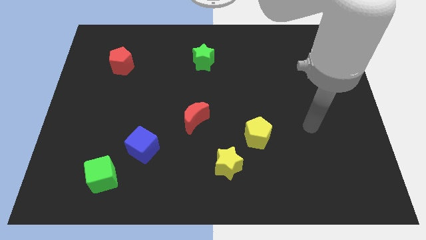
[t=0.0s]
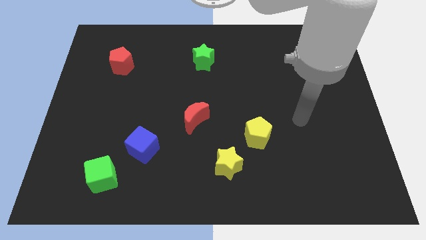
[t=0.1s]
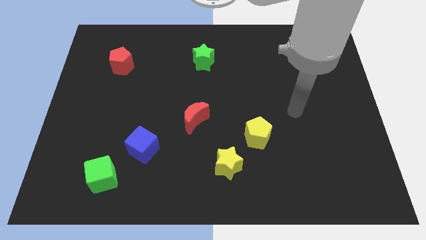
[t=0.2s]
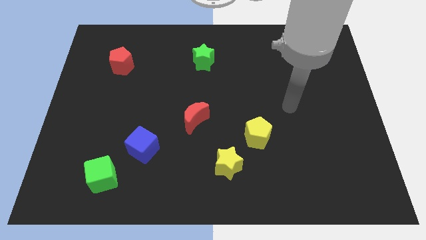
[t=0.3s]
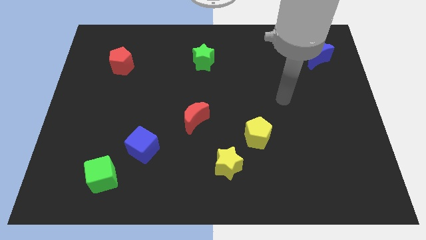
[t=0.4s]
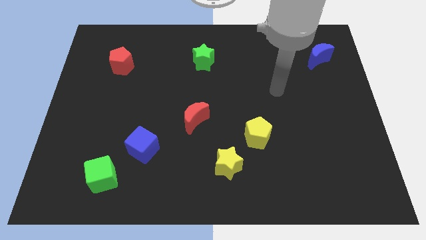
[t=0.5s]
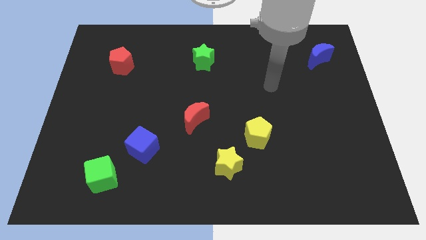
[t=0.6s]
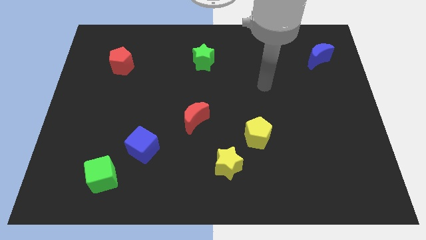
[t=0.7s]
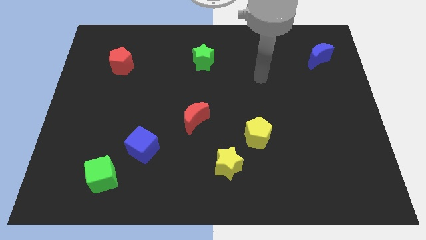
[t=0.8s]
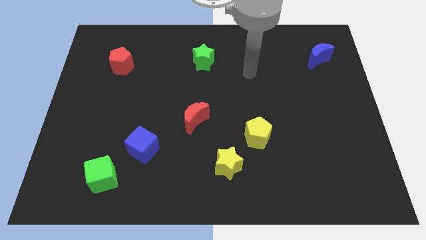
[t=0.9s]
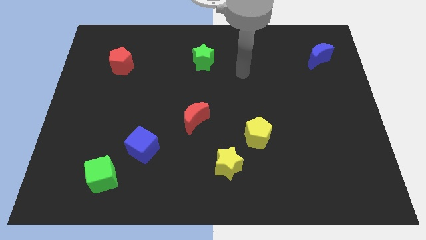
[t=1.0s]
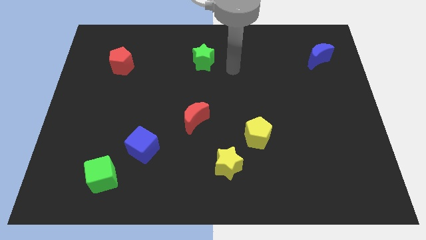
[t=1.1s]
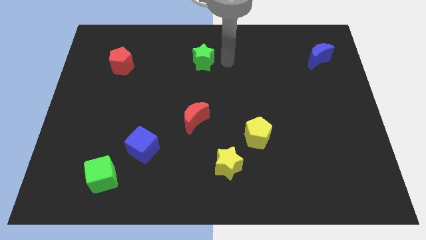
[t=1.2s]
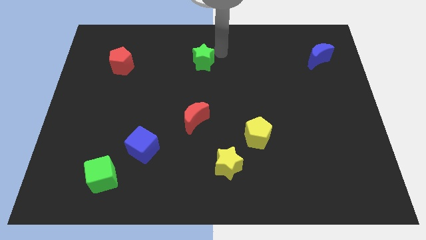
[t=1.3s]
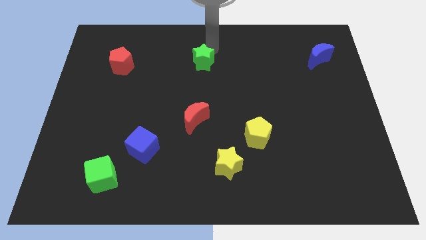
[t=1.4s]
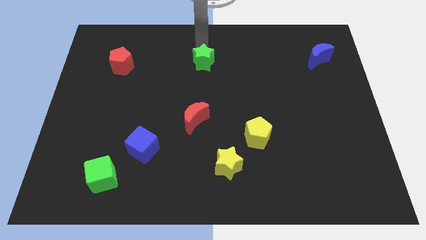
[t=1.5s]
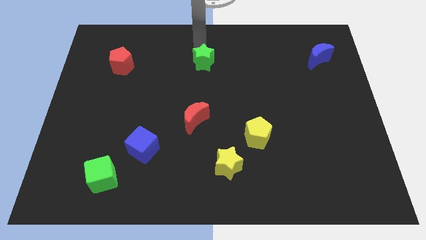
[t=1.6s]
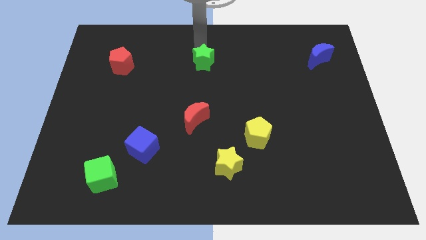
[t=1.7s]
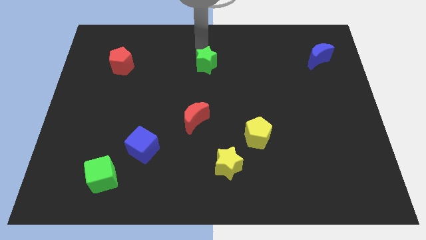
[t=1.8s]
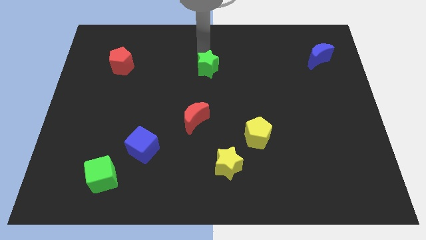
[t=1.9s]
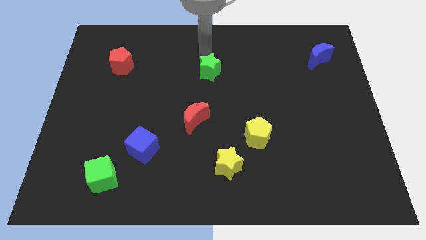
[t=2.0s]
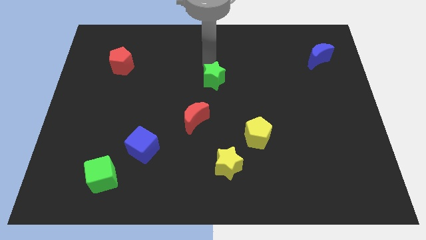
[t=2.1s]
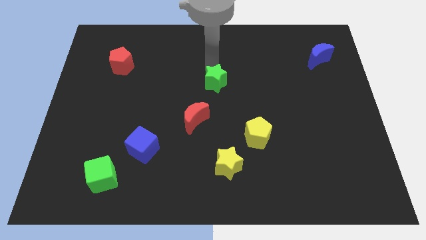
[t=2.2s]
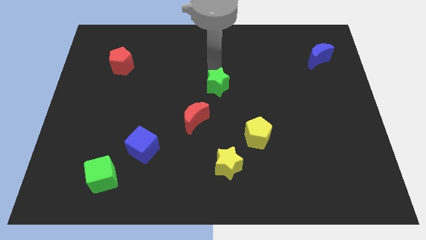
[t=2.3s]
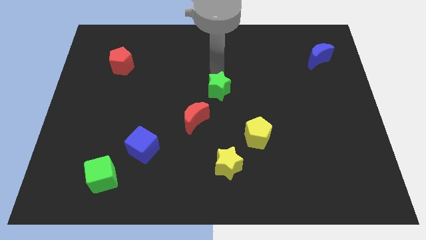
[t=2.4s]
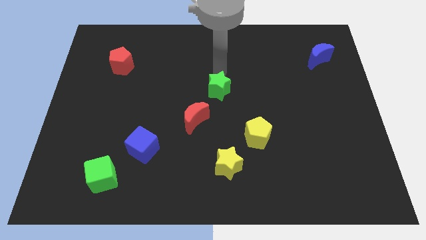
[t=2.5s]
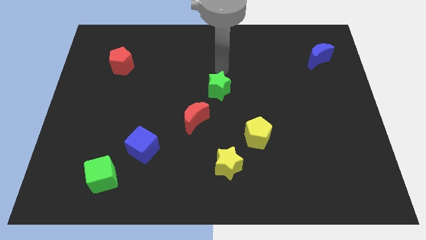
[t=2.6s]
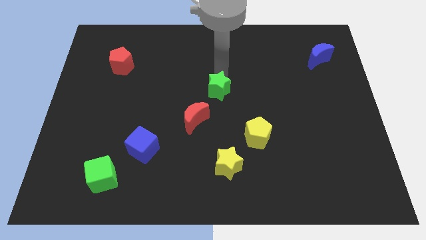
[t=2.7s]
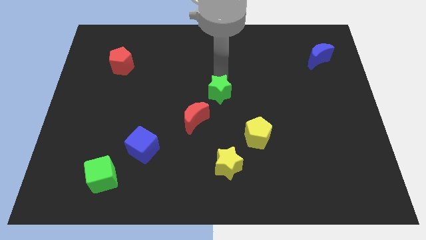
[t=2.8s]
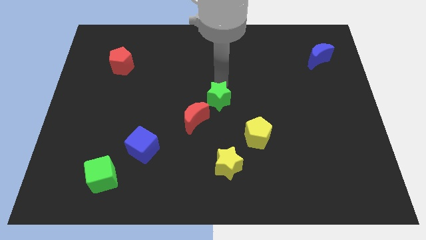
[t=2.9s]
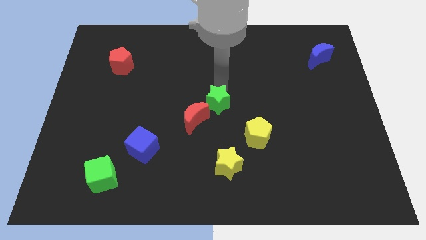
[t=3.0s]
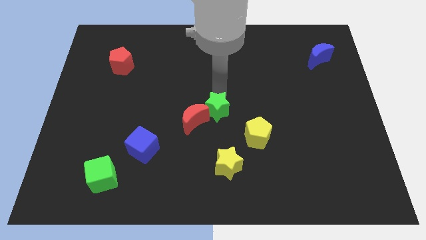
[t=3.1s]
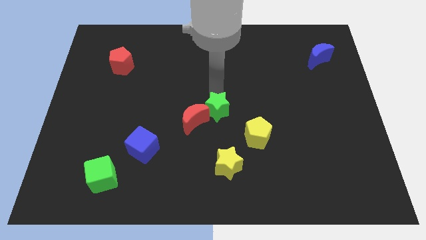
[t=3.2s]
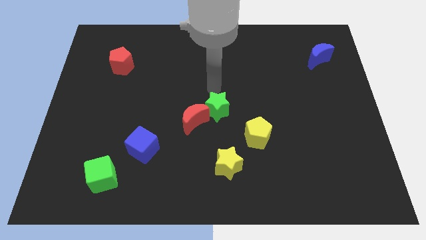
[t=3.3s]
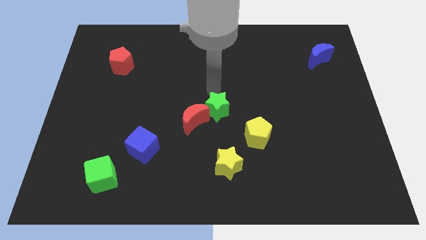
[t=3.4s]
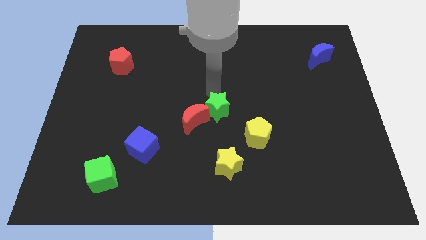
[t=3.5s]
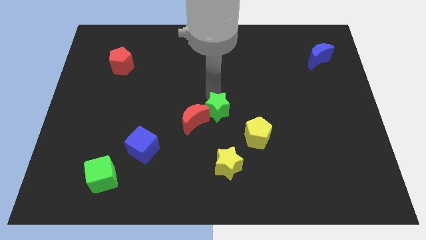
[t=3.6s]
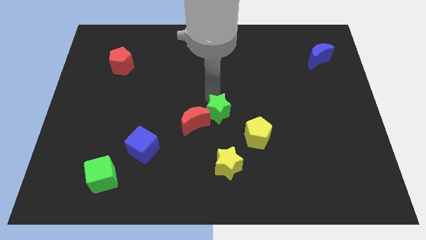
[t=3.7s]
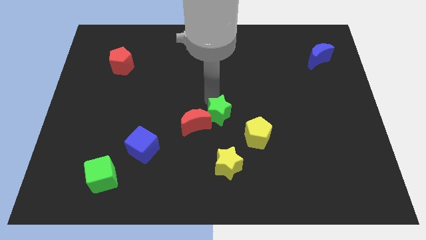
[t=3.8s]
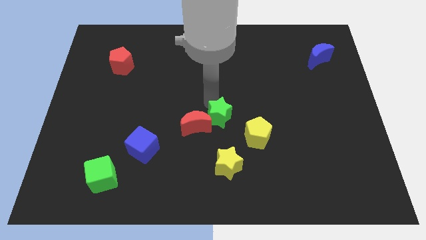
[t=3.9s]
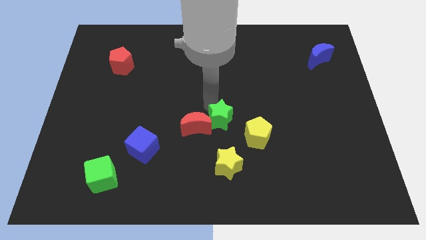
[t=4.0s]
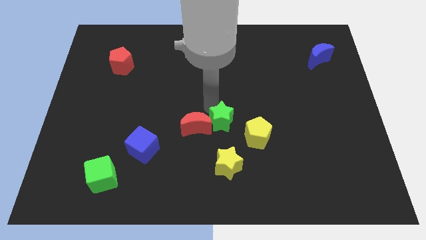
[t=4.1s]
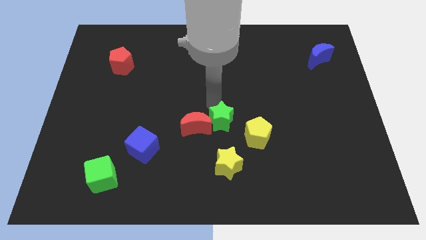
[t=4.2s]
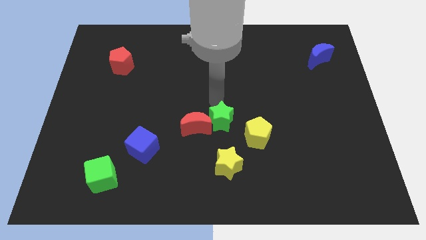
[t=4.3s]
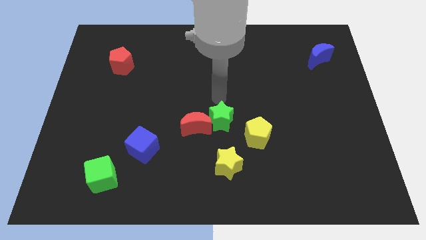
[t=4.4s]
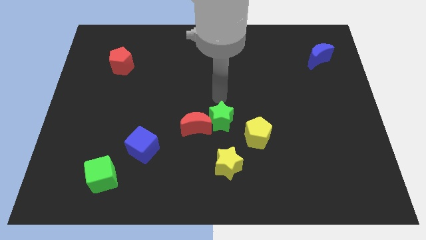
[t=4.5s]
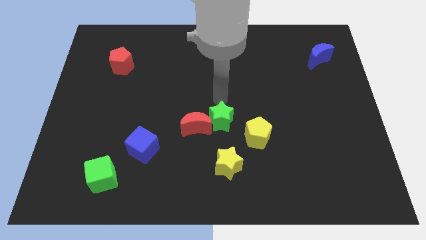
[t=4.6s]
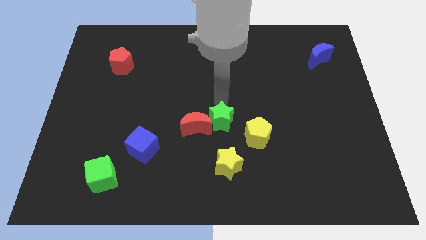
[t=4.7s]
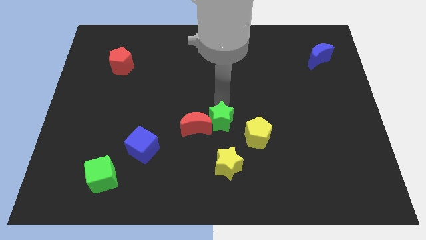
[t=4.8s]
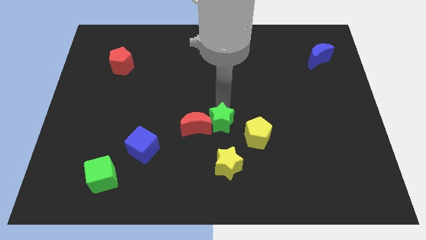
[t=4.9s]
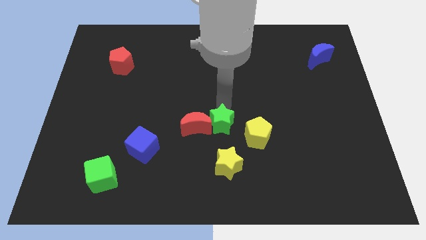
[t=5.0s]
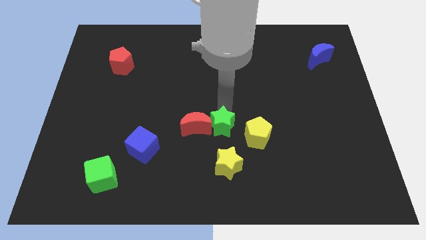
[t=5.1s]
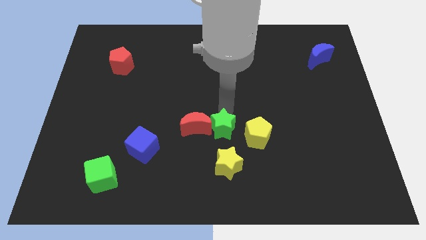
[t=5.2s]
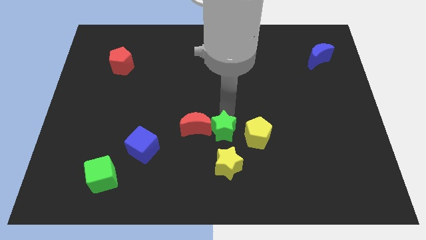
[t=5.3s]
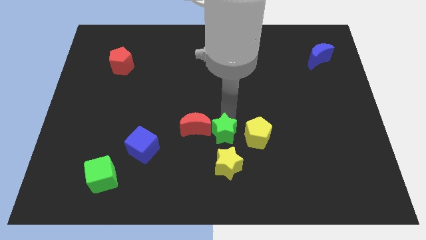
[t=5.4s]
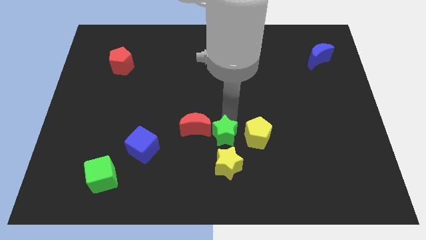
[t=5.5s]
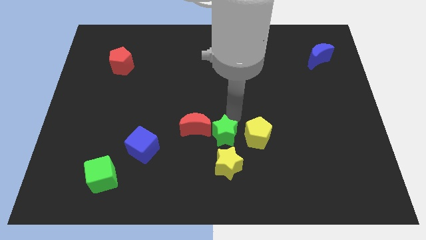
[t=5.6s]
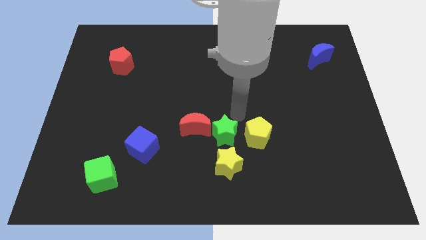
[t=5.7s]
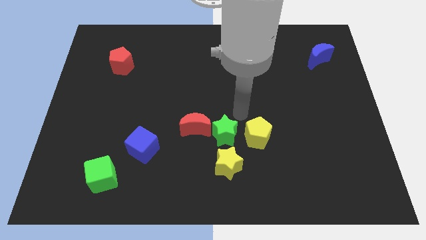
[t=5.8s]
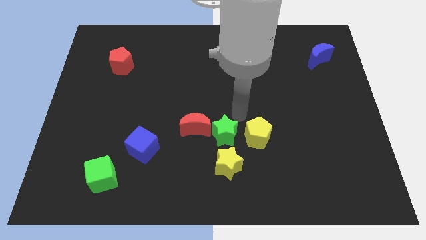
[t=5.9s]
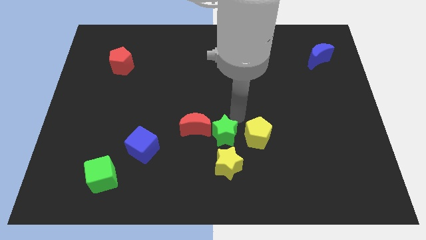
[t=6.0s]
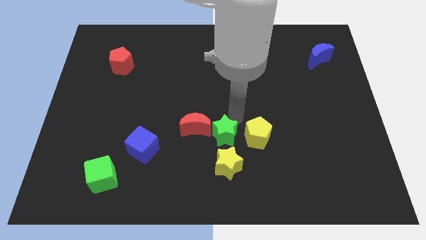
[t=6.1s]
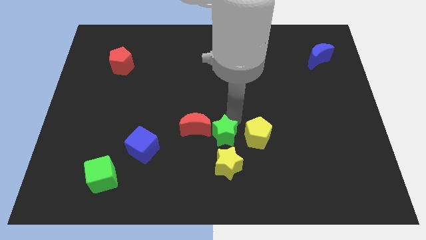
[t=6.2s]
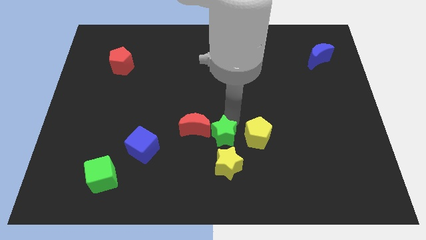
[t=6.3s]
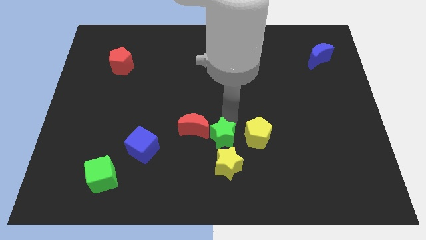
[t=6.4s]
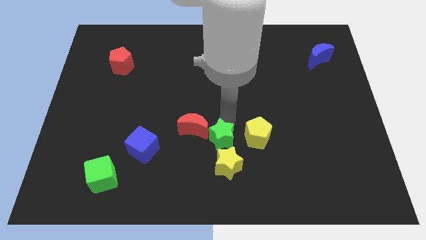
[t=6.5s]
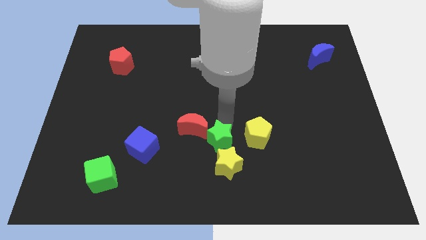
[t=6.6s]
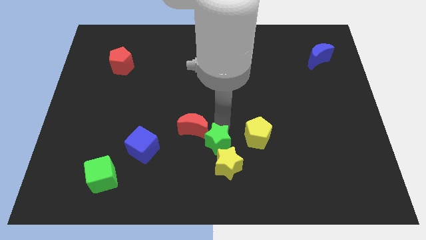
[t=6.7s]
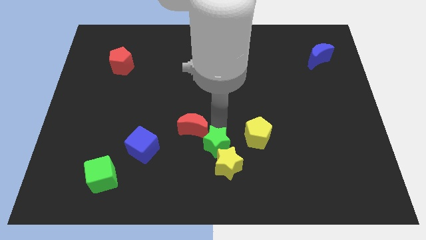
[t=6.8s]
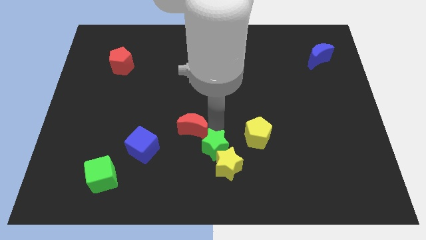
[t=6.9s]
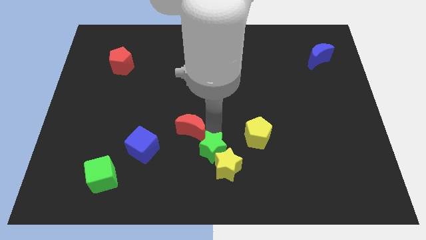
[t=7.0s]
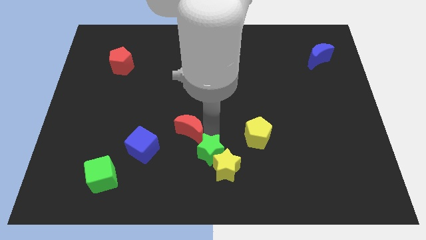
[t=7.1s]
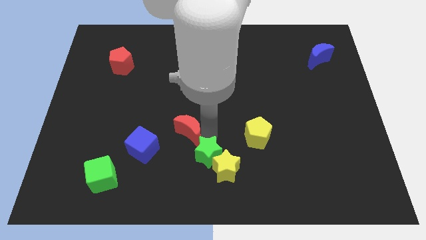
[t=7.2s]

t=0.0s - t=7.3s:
put the green star to the bottom side

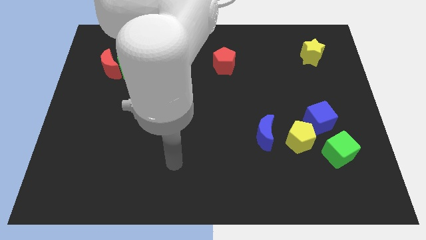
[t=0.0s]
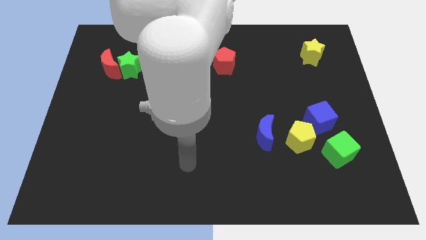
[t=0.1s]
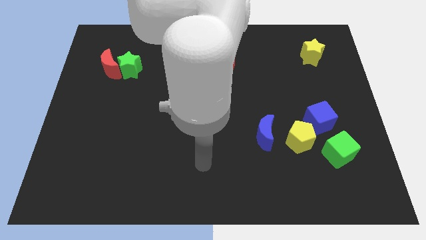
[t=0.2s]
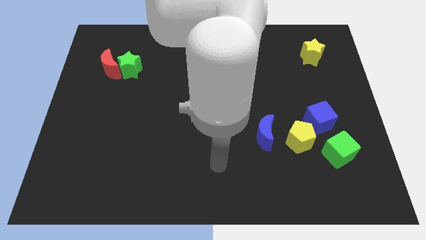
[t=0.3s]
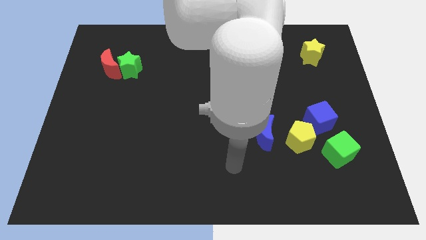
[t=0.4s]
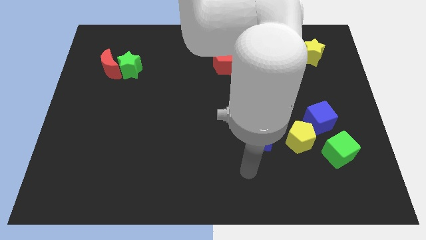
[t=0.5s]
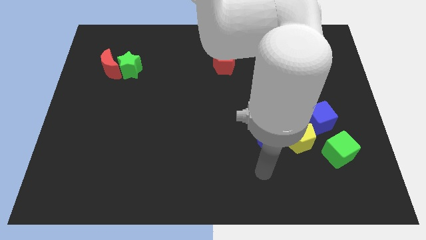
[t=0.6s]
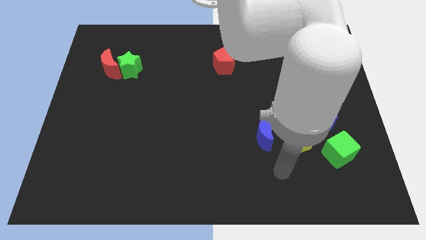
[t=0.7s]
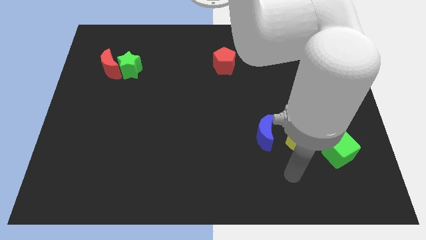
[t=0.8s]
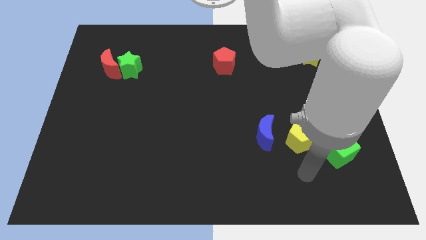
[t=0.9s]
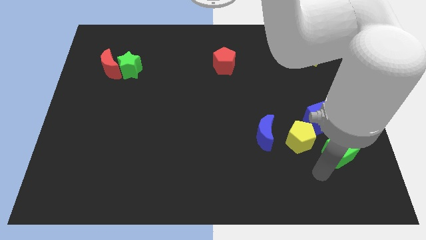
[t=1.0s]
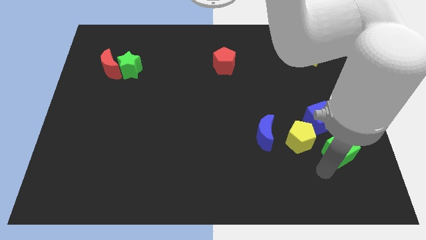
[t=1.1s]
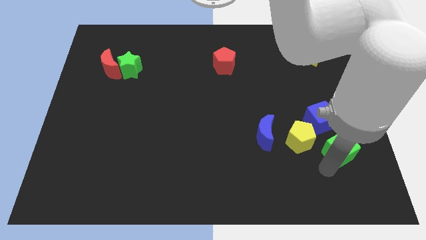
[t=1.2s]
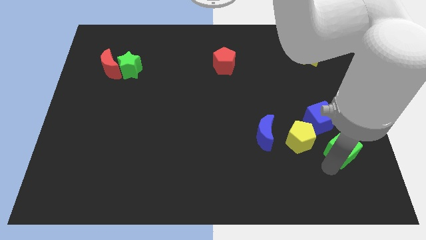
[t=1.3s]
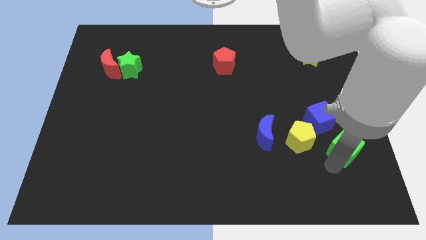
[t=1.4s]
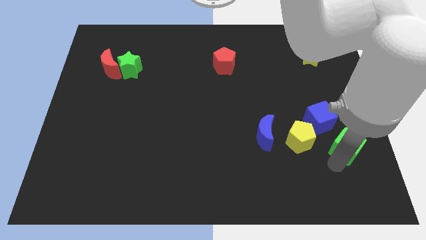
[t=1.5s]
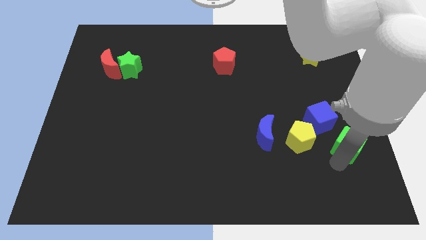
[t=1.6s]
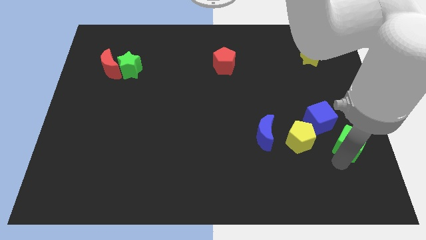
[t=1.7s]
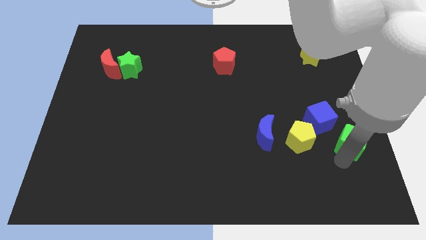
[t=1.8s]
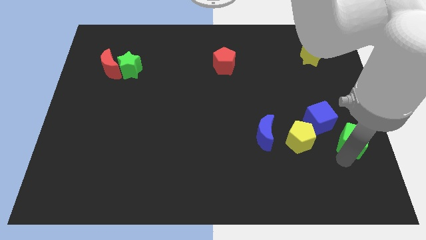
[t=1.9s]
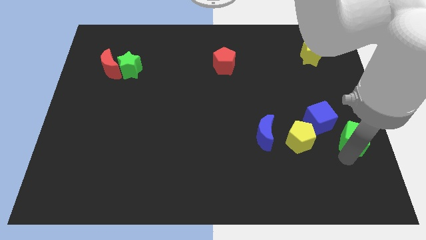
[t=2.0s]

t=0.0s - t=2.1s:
push the green cube to the center right
